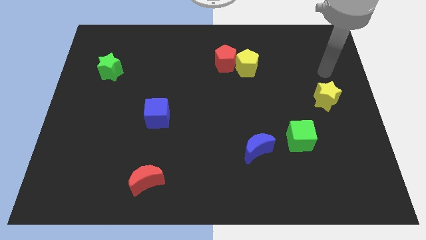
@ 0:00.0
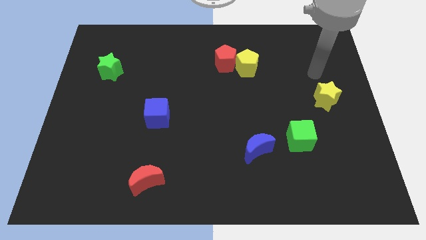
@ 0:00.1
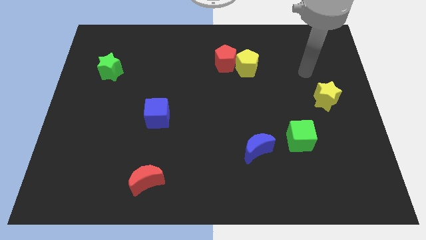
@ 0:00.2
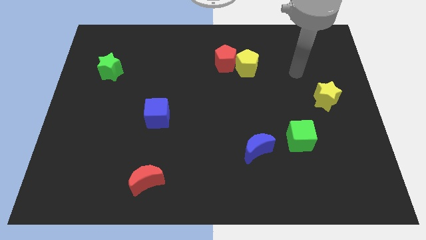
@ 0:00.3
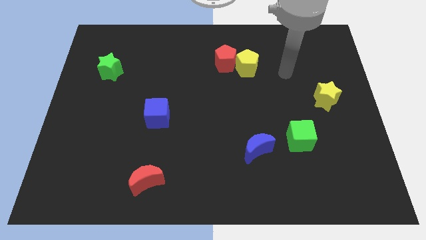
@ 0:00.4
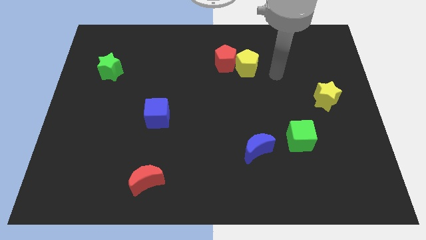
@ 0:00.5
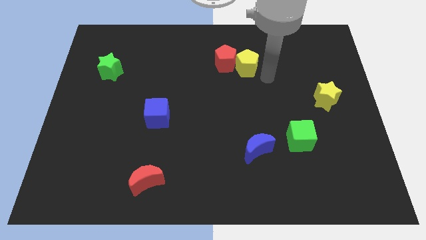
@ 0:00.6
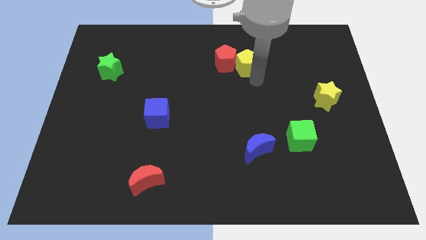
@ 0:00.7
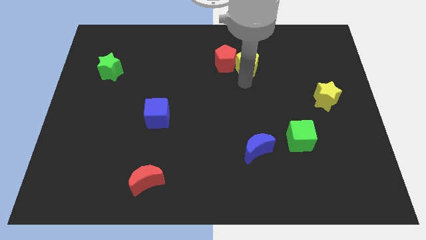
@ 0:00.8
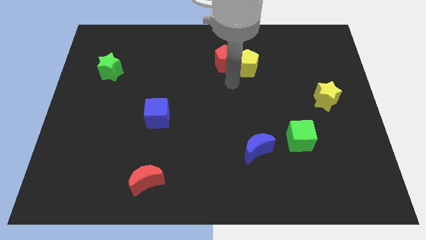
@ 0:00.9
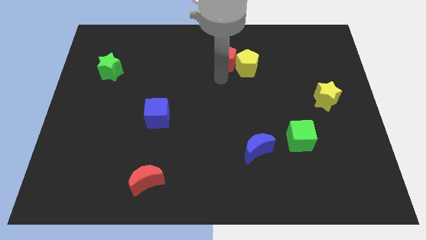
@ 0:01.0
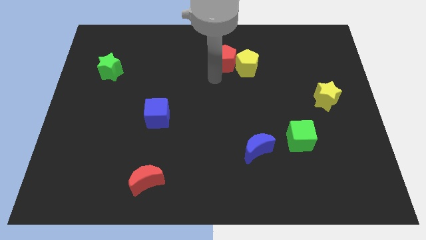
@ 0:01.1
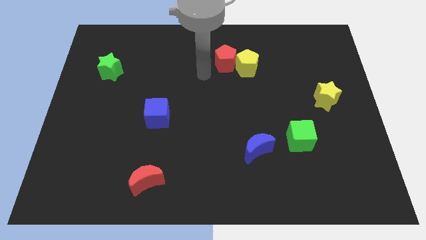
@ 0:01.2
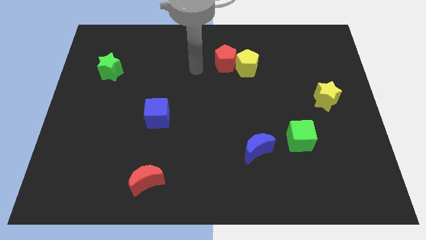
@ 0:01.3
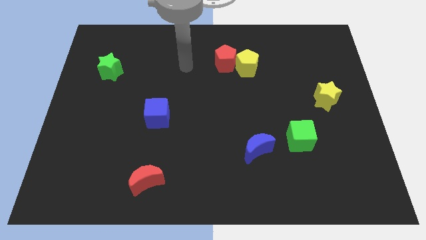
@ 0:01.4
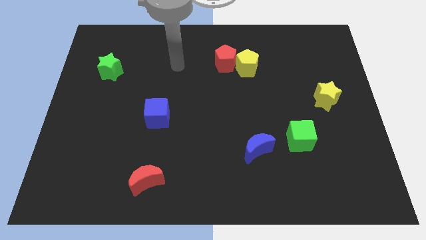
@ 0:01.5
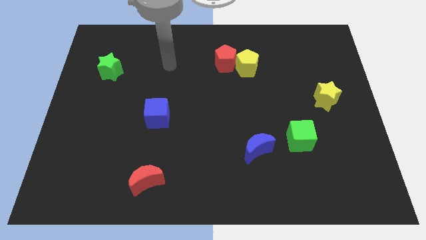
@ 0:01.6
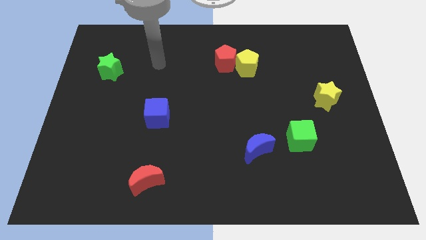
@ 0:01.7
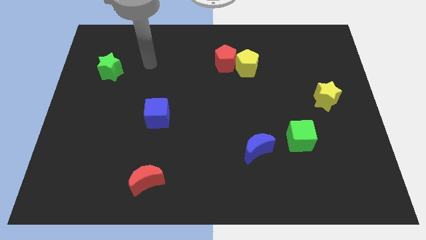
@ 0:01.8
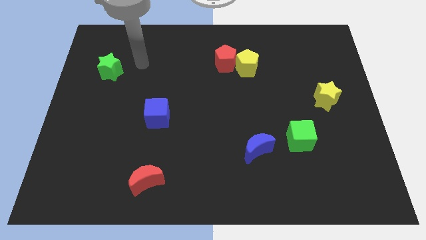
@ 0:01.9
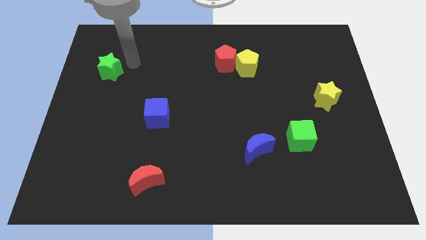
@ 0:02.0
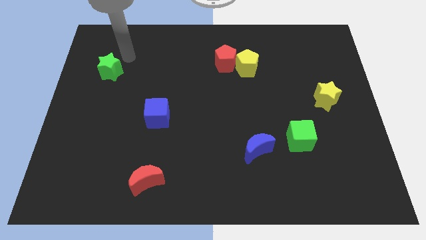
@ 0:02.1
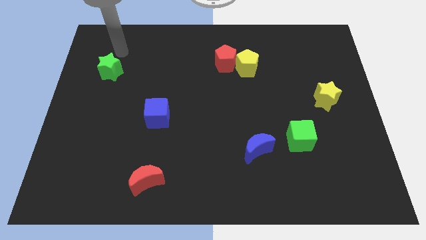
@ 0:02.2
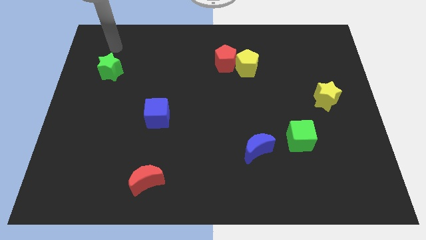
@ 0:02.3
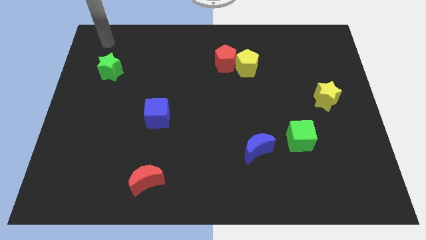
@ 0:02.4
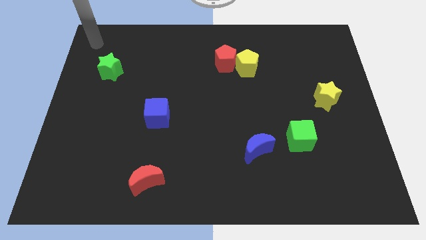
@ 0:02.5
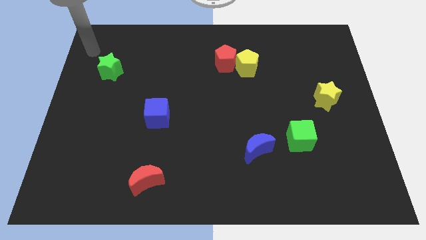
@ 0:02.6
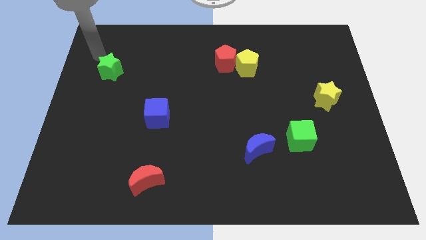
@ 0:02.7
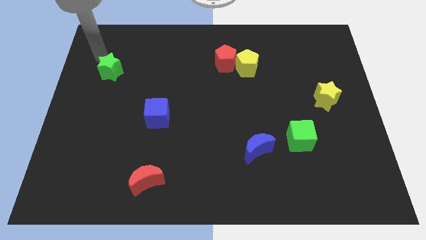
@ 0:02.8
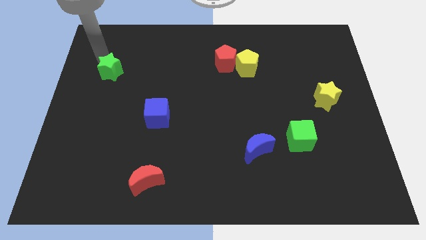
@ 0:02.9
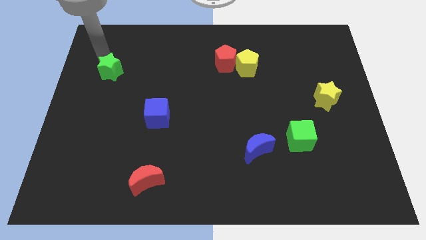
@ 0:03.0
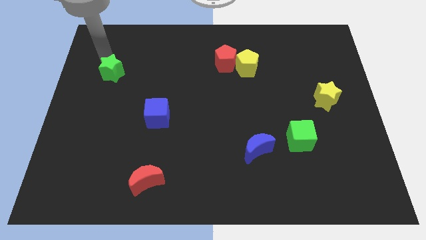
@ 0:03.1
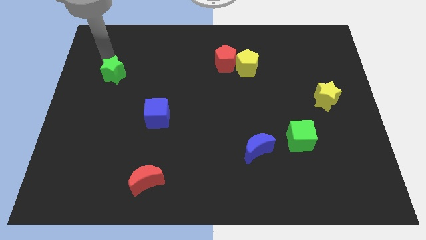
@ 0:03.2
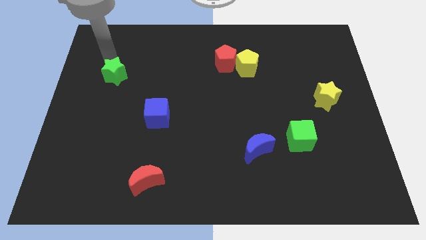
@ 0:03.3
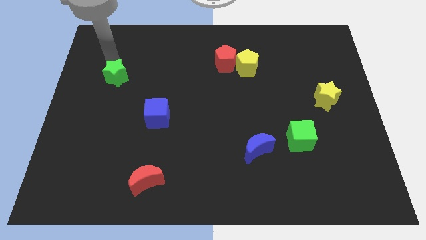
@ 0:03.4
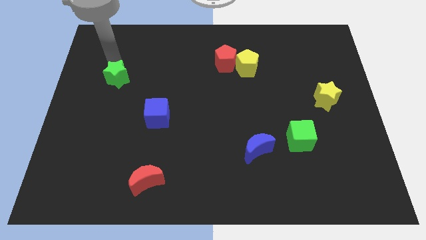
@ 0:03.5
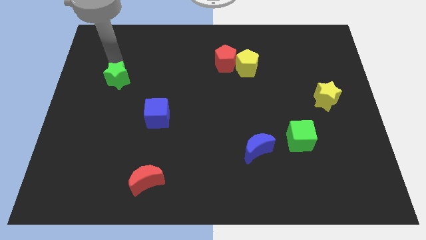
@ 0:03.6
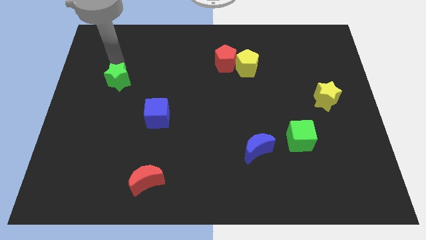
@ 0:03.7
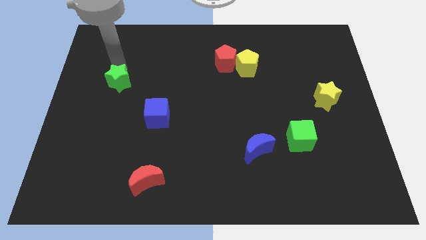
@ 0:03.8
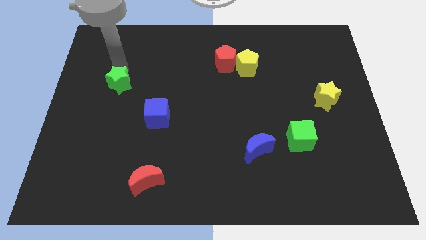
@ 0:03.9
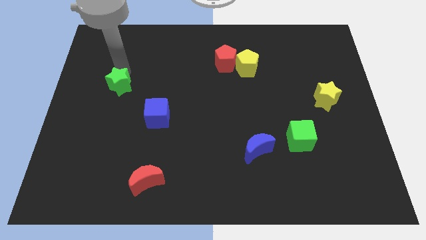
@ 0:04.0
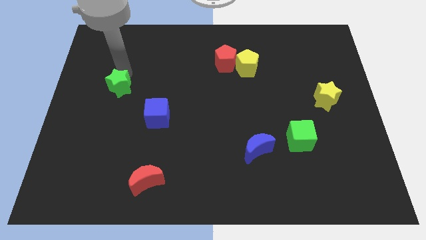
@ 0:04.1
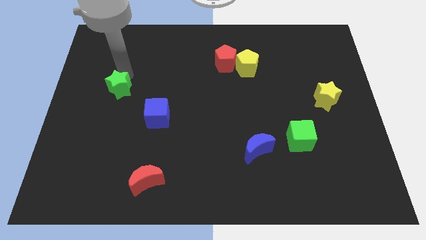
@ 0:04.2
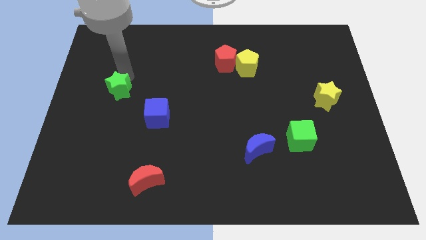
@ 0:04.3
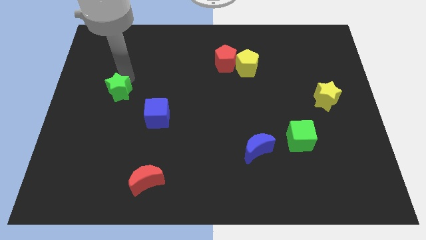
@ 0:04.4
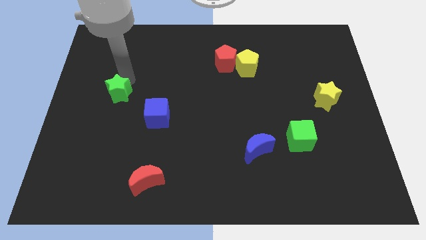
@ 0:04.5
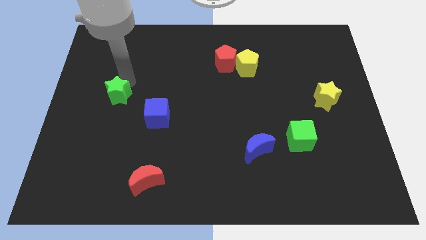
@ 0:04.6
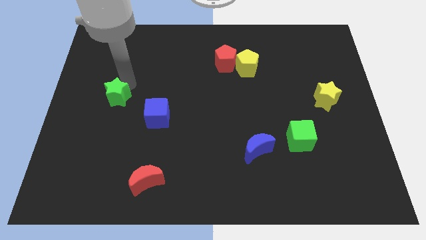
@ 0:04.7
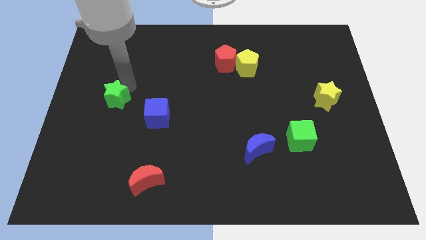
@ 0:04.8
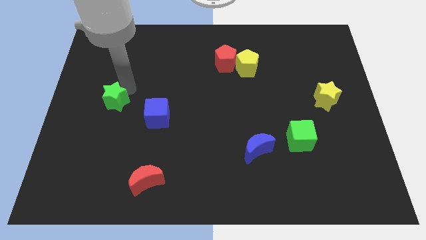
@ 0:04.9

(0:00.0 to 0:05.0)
push the green star left of the blue cube

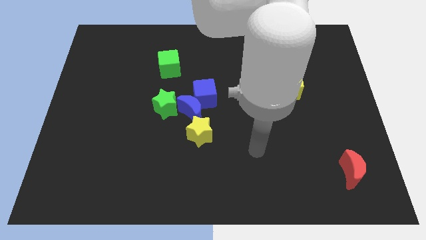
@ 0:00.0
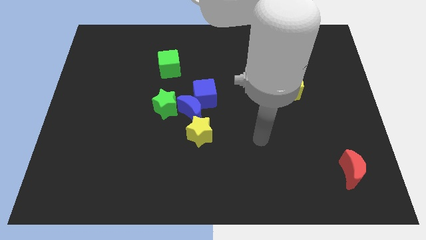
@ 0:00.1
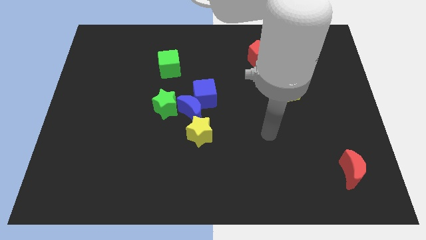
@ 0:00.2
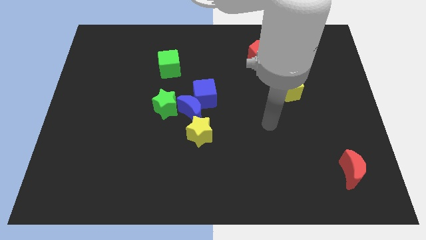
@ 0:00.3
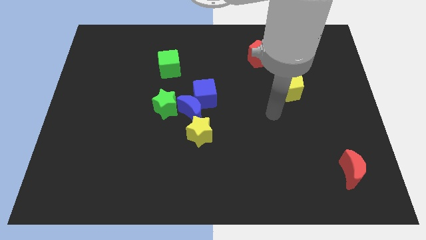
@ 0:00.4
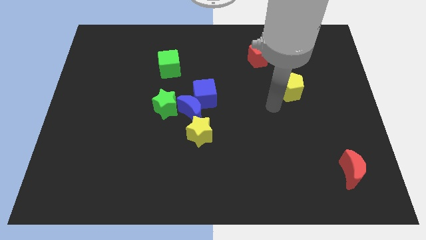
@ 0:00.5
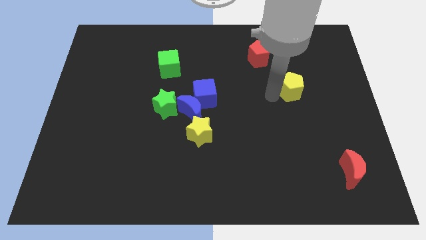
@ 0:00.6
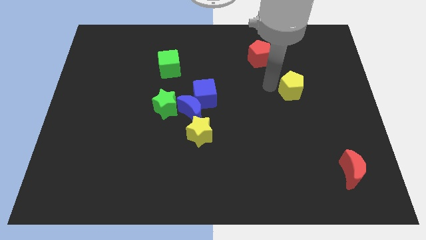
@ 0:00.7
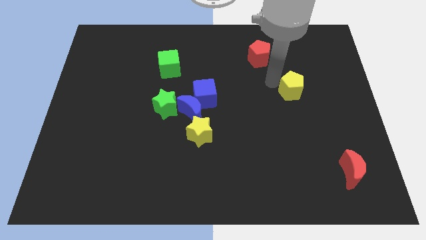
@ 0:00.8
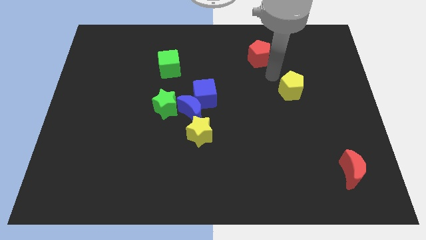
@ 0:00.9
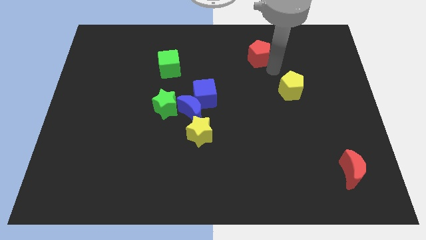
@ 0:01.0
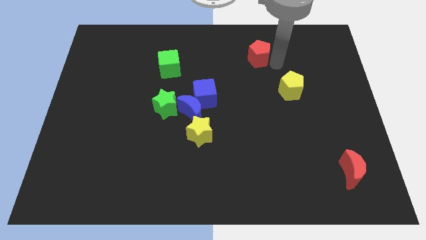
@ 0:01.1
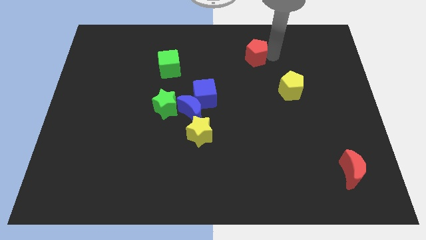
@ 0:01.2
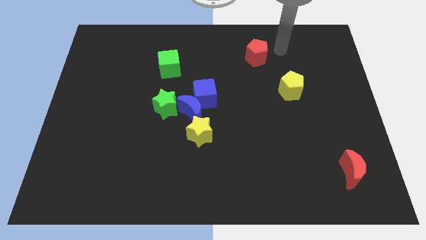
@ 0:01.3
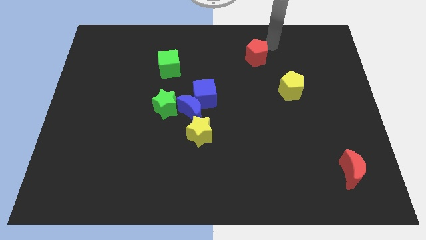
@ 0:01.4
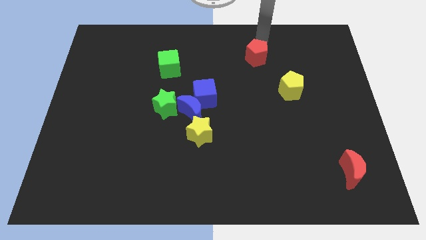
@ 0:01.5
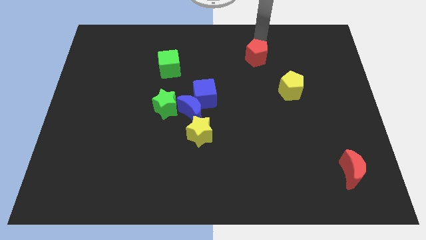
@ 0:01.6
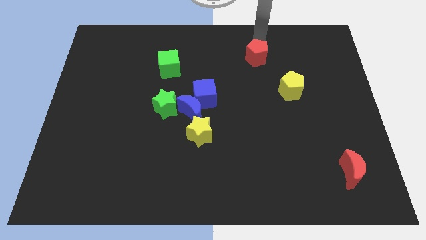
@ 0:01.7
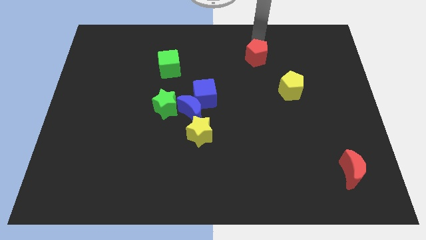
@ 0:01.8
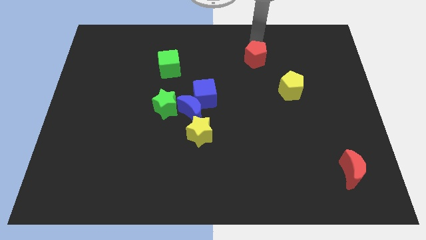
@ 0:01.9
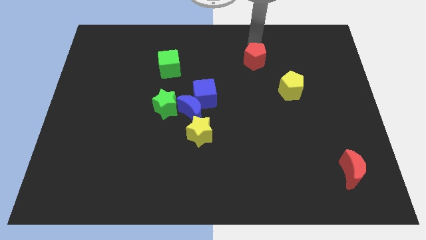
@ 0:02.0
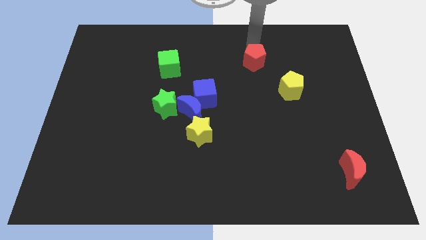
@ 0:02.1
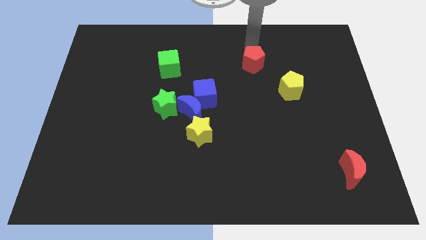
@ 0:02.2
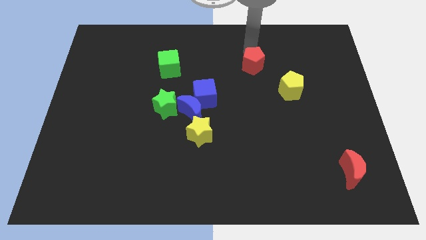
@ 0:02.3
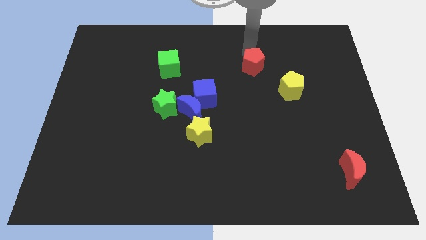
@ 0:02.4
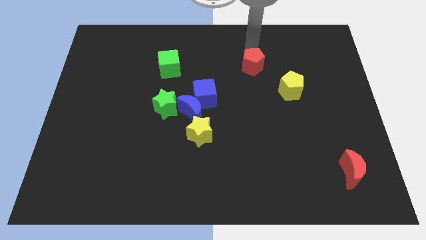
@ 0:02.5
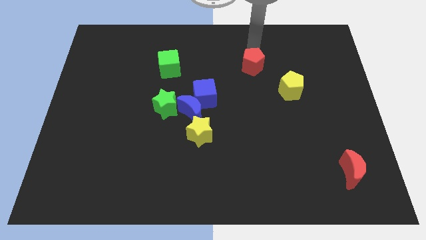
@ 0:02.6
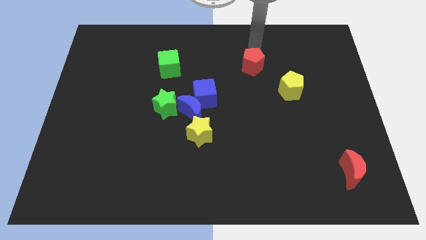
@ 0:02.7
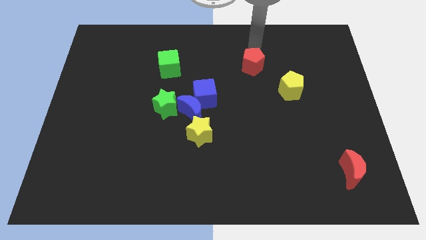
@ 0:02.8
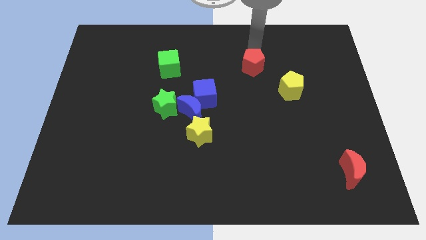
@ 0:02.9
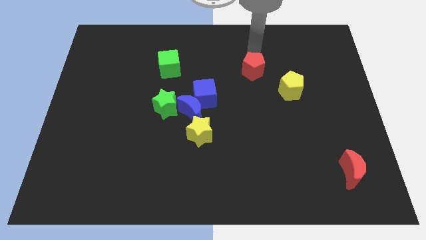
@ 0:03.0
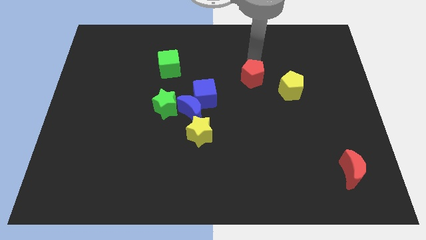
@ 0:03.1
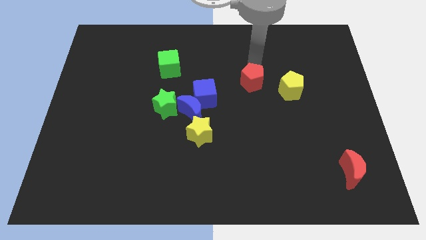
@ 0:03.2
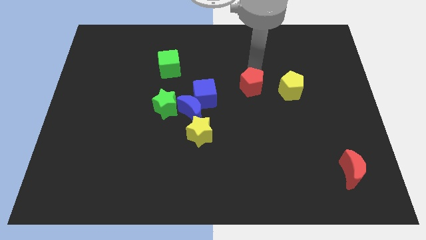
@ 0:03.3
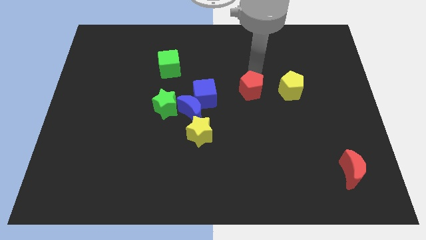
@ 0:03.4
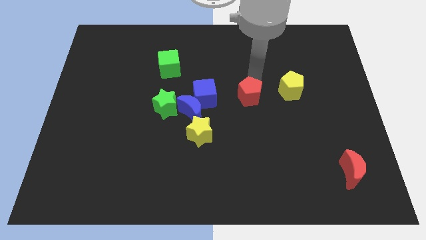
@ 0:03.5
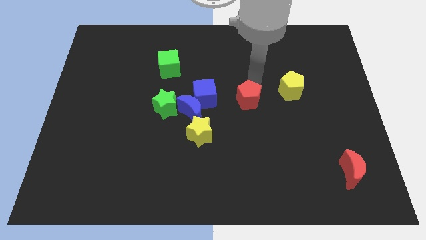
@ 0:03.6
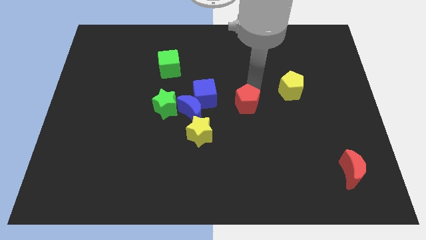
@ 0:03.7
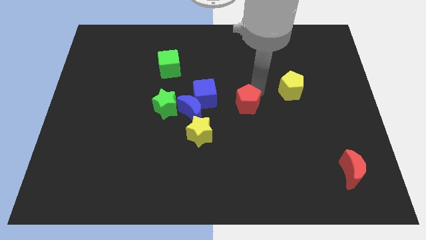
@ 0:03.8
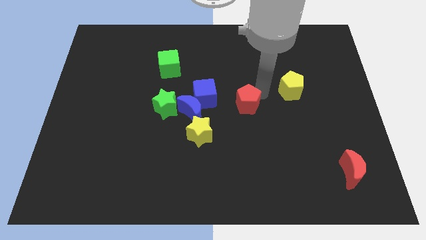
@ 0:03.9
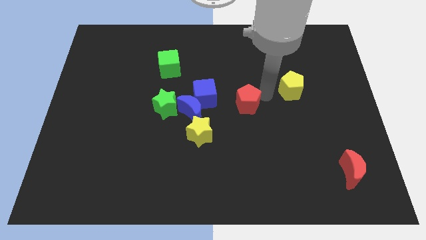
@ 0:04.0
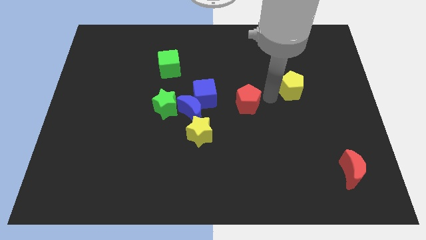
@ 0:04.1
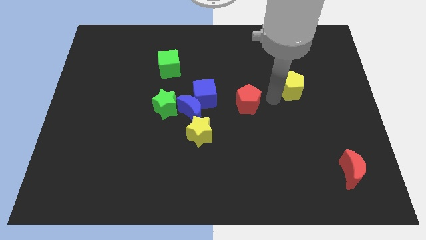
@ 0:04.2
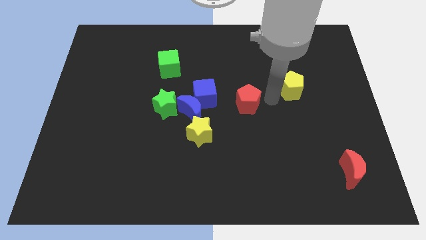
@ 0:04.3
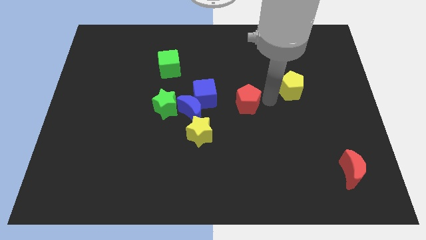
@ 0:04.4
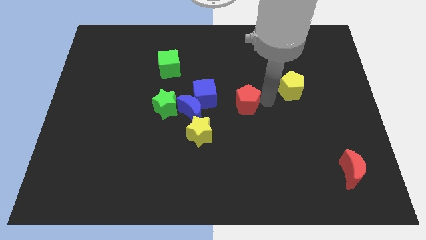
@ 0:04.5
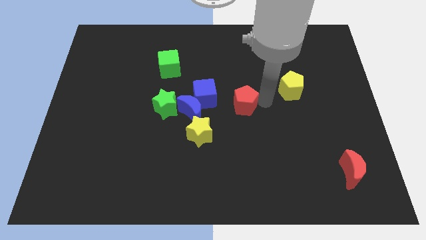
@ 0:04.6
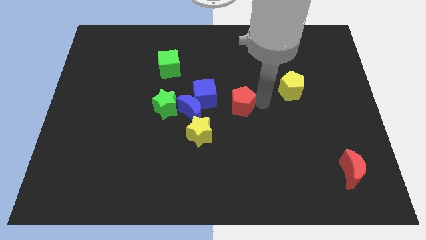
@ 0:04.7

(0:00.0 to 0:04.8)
slide the red pentagon to the bottom right of the blue cube
